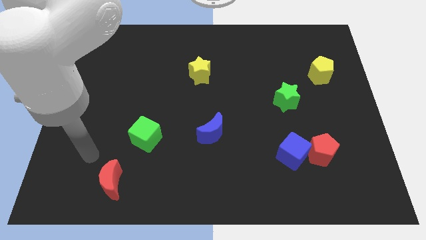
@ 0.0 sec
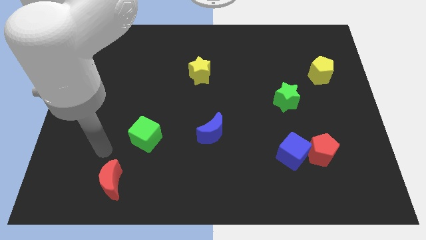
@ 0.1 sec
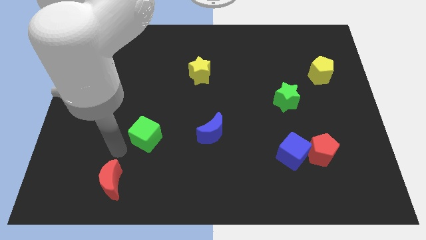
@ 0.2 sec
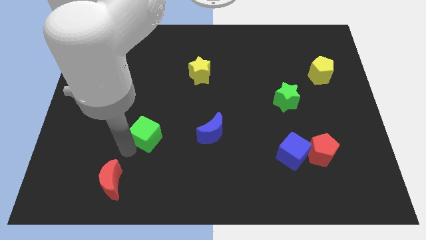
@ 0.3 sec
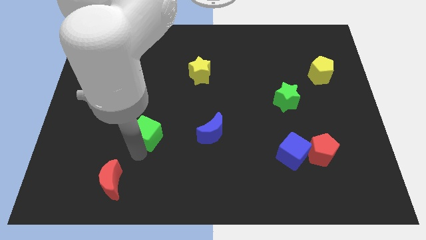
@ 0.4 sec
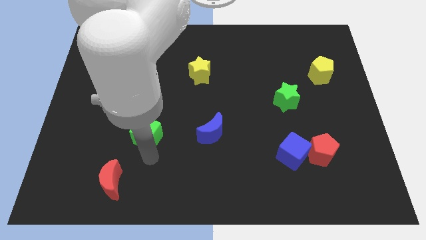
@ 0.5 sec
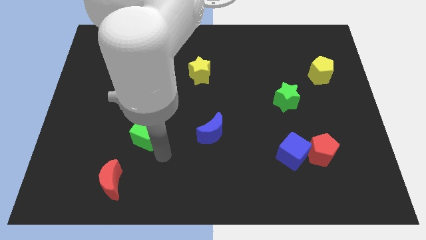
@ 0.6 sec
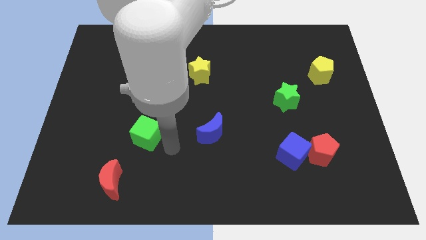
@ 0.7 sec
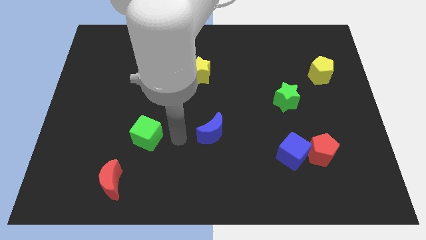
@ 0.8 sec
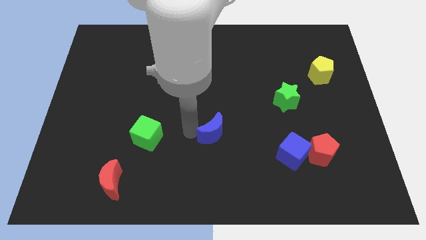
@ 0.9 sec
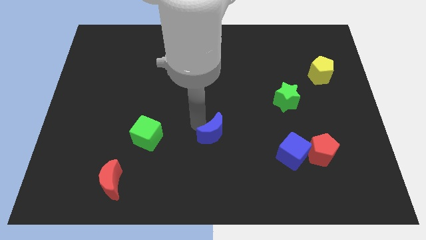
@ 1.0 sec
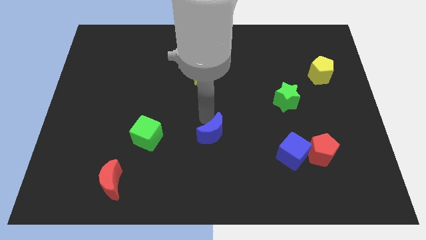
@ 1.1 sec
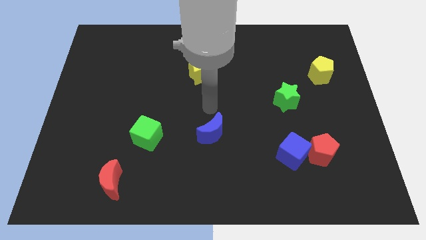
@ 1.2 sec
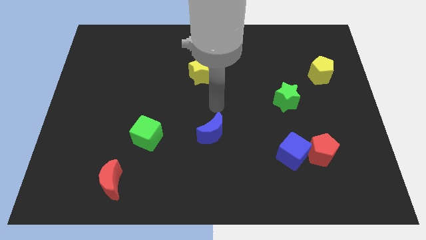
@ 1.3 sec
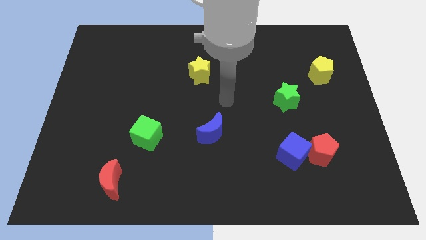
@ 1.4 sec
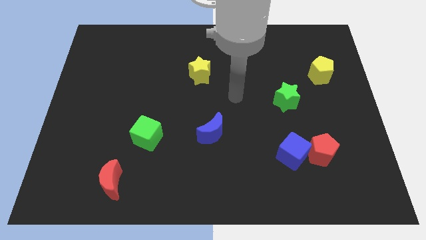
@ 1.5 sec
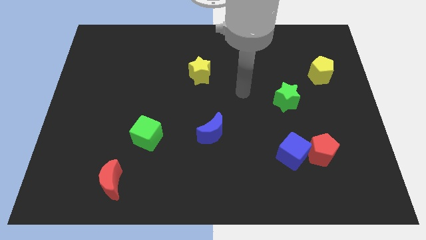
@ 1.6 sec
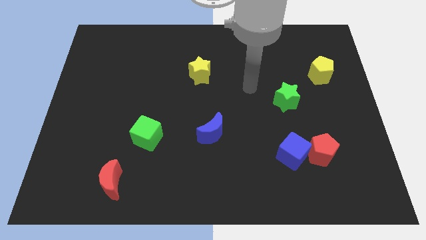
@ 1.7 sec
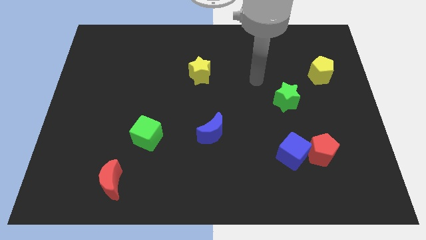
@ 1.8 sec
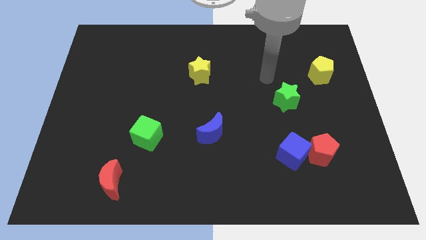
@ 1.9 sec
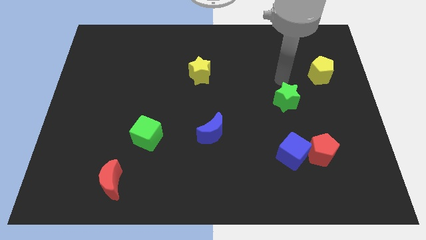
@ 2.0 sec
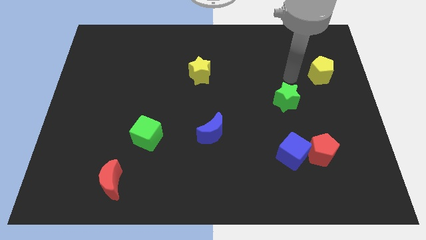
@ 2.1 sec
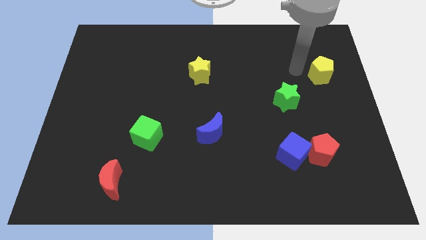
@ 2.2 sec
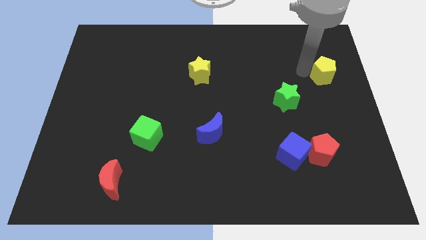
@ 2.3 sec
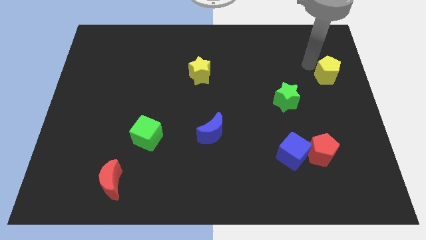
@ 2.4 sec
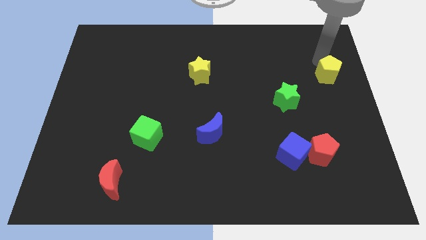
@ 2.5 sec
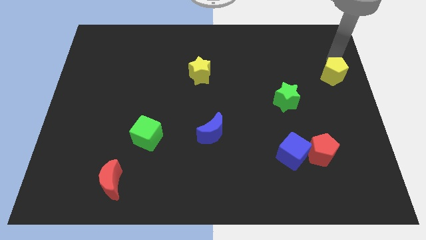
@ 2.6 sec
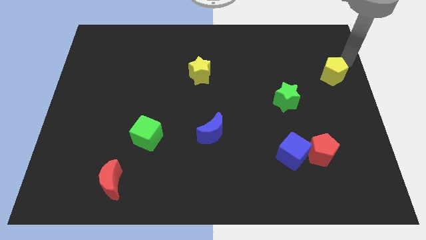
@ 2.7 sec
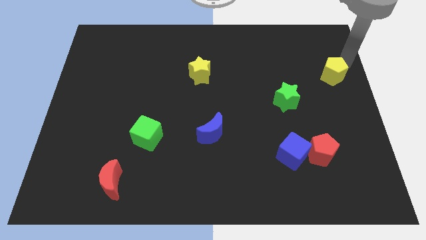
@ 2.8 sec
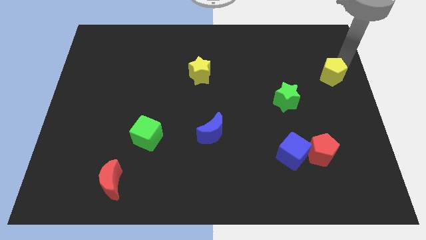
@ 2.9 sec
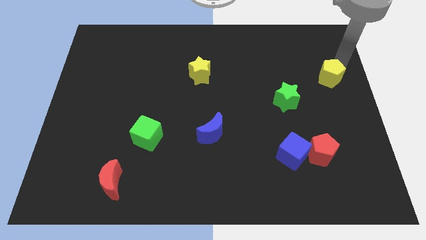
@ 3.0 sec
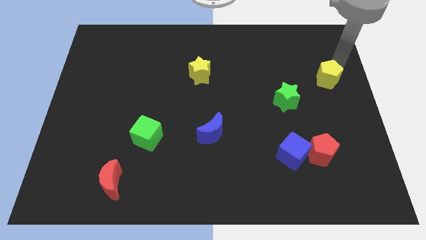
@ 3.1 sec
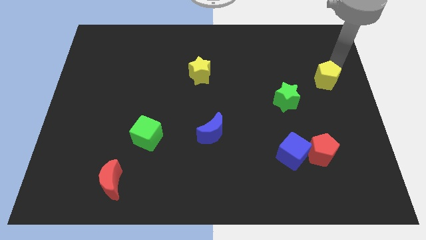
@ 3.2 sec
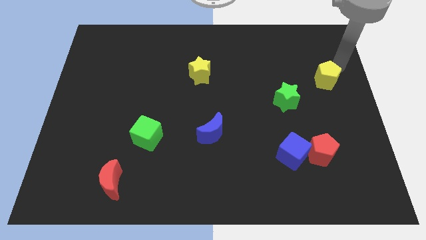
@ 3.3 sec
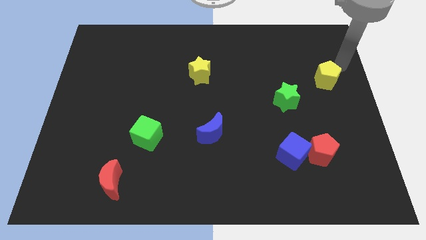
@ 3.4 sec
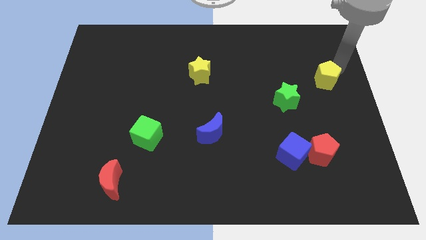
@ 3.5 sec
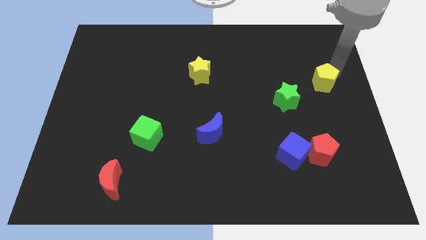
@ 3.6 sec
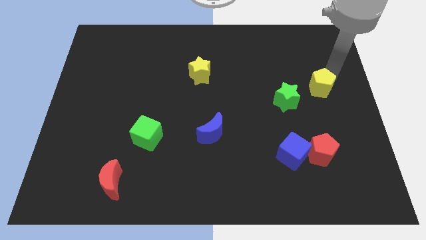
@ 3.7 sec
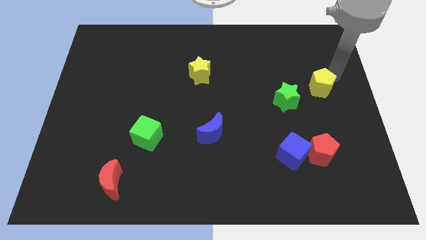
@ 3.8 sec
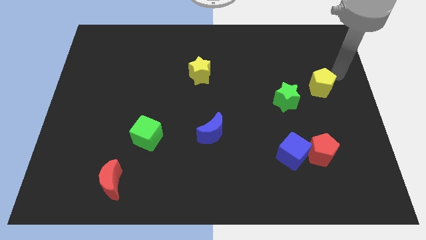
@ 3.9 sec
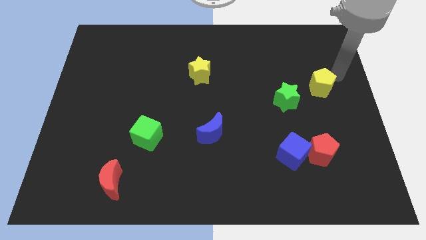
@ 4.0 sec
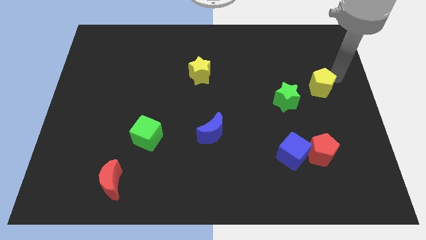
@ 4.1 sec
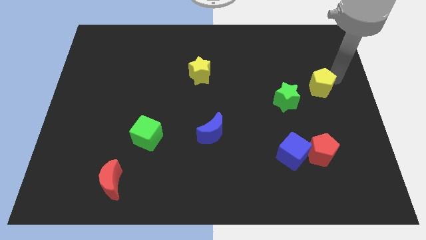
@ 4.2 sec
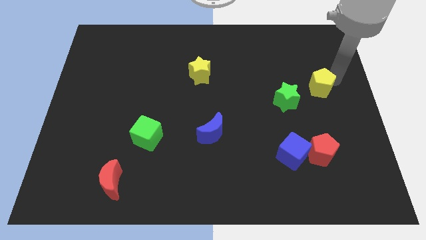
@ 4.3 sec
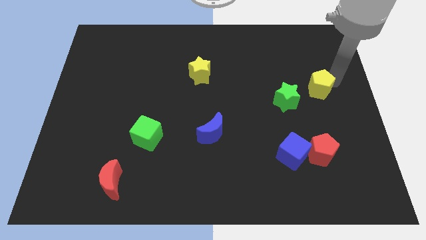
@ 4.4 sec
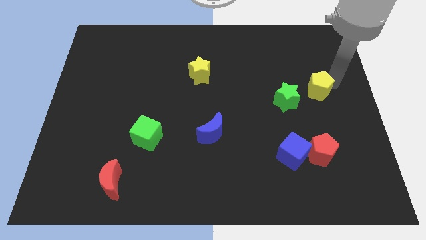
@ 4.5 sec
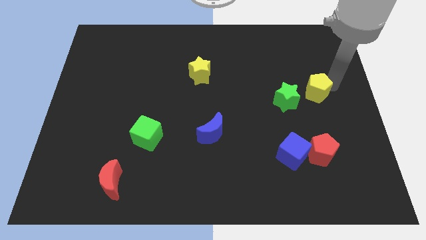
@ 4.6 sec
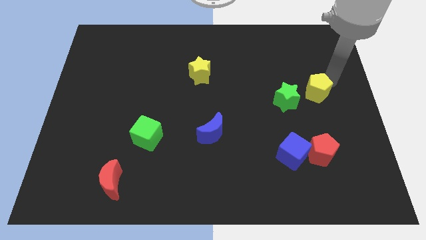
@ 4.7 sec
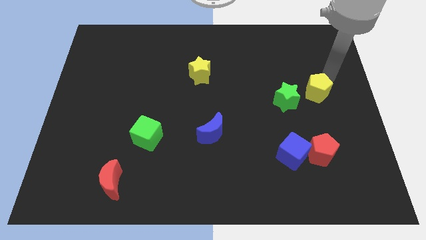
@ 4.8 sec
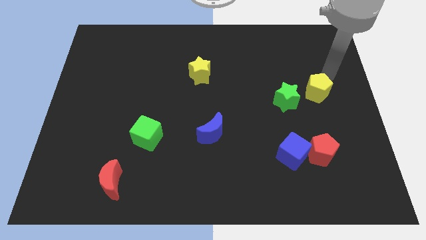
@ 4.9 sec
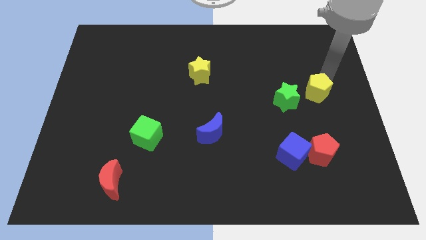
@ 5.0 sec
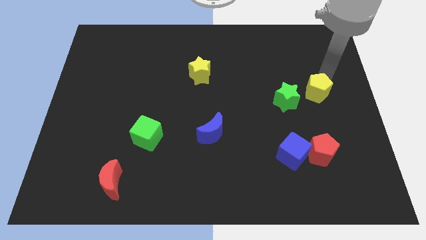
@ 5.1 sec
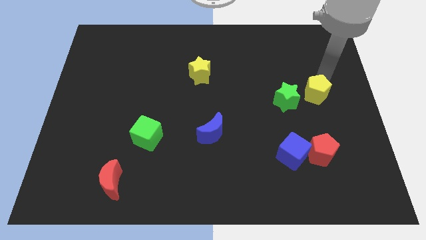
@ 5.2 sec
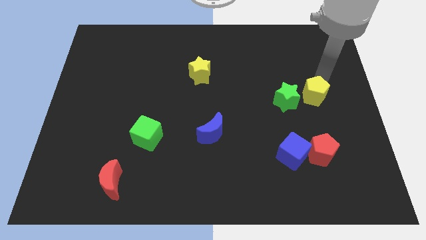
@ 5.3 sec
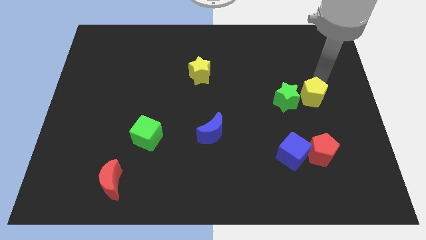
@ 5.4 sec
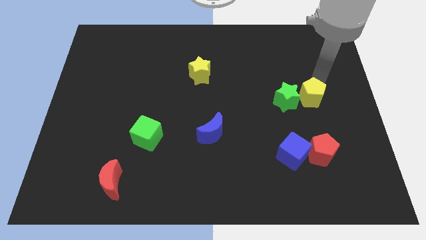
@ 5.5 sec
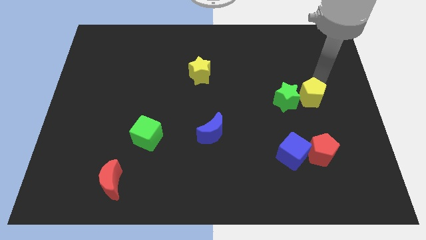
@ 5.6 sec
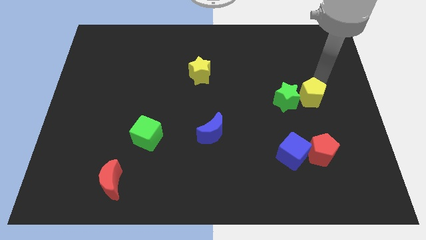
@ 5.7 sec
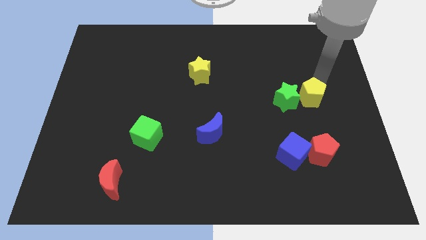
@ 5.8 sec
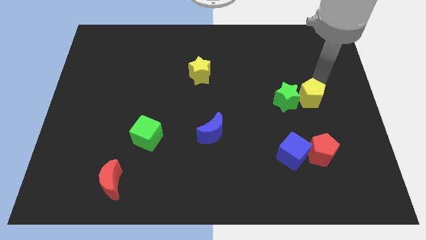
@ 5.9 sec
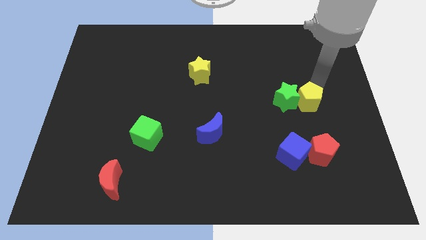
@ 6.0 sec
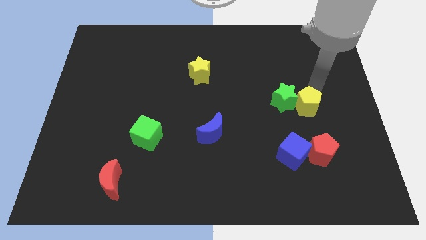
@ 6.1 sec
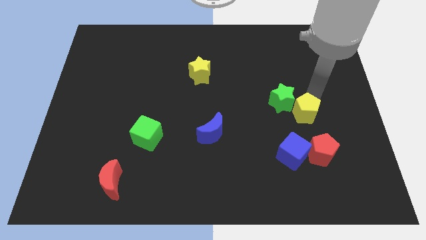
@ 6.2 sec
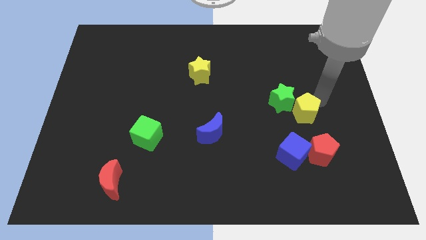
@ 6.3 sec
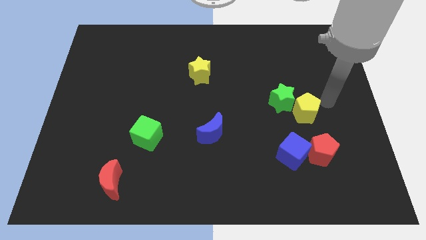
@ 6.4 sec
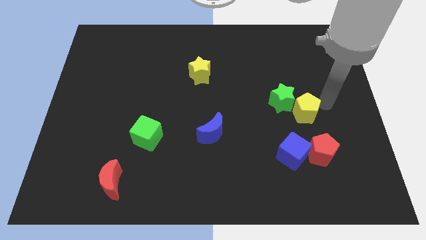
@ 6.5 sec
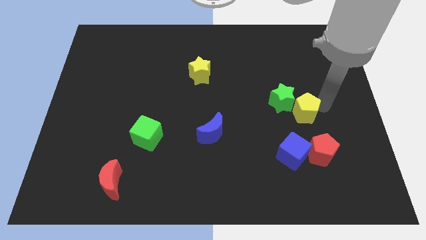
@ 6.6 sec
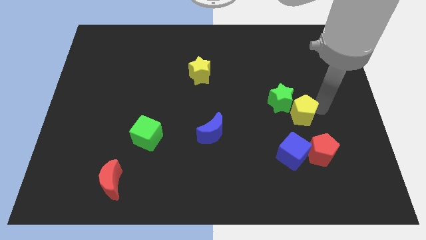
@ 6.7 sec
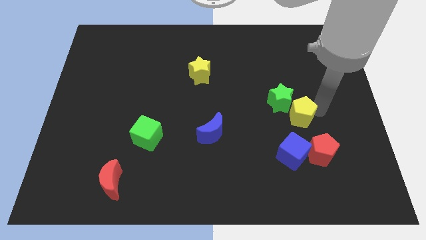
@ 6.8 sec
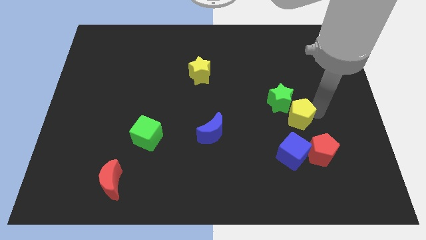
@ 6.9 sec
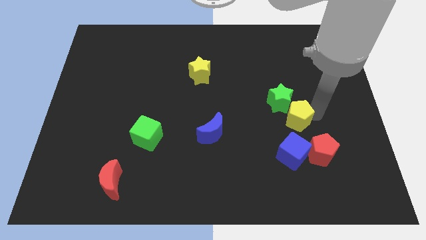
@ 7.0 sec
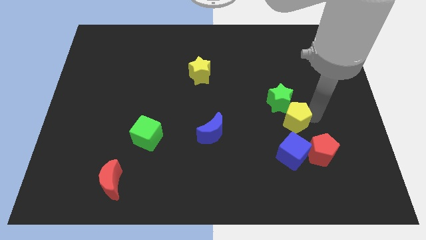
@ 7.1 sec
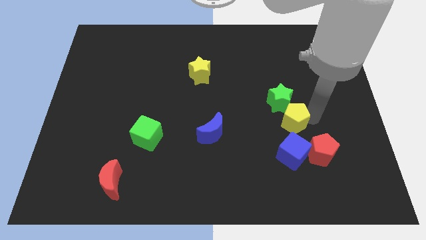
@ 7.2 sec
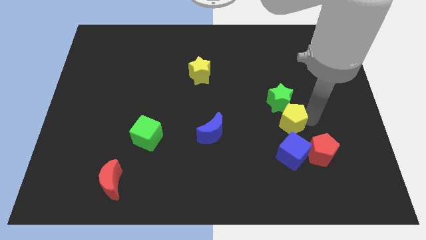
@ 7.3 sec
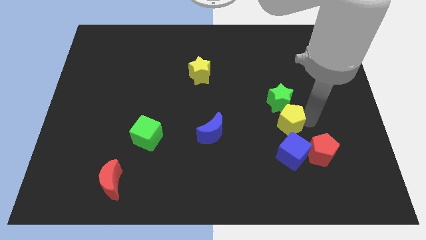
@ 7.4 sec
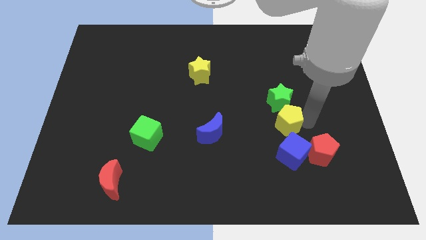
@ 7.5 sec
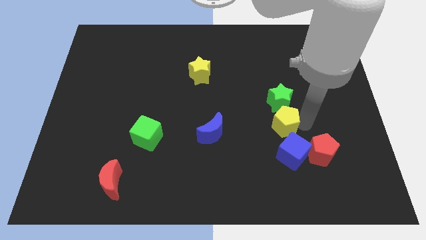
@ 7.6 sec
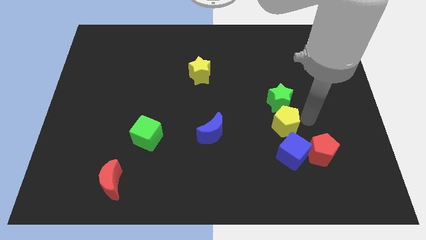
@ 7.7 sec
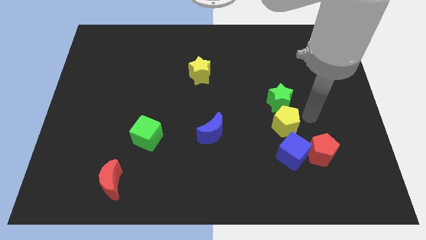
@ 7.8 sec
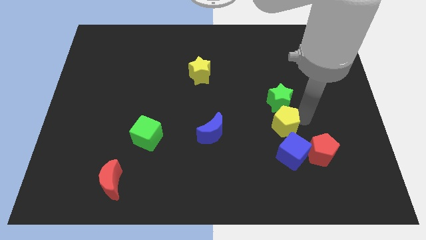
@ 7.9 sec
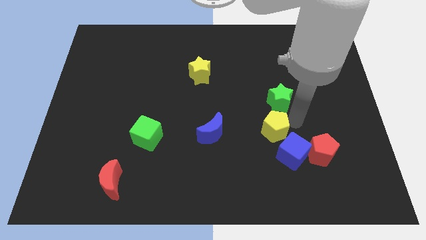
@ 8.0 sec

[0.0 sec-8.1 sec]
push the yellow pentagon down and left diagonally
